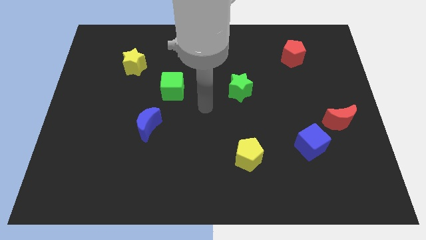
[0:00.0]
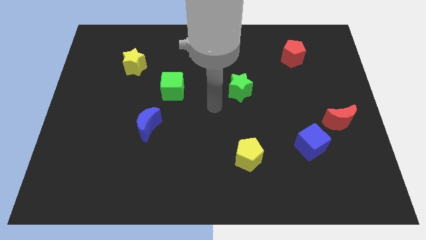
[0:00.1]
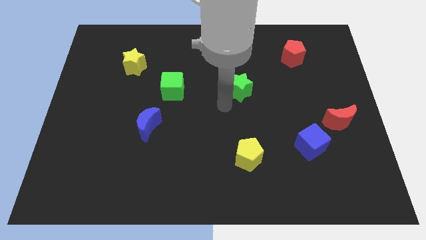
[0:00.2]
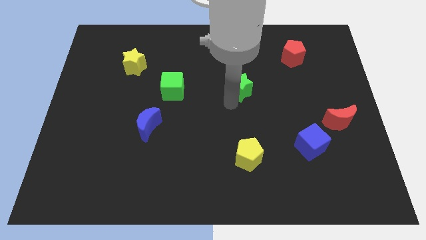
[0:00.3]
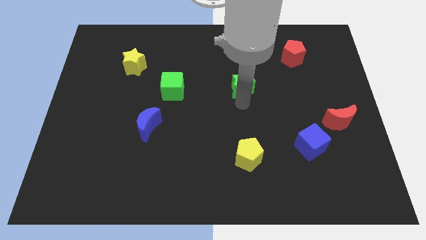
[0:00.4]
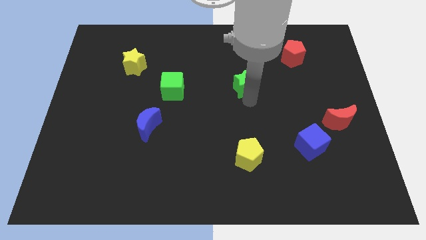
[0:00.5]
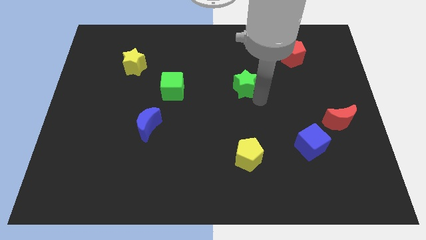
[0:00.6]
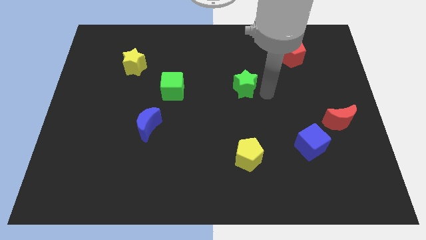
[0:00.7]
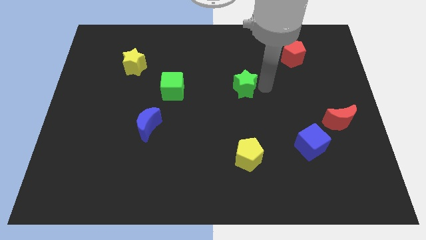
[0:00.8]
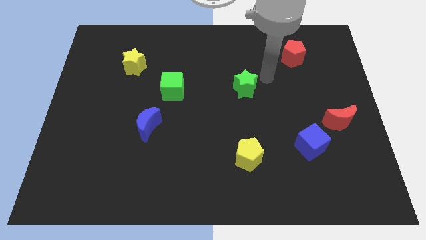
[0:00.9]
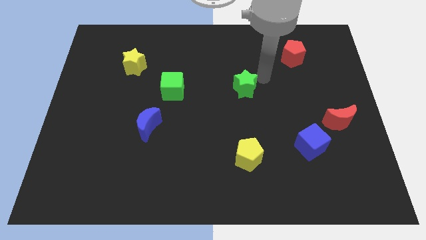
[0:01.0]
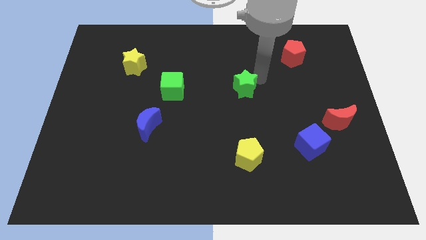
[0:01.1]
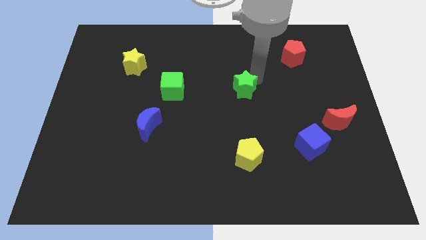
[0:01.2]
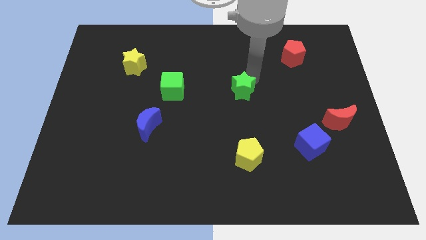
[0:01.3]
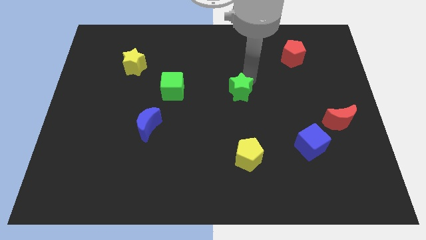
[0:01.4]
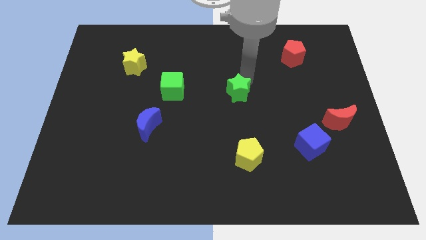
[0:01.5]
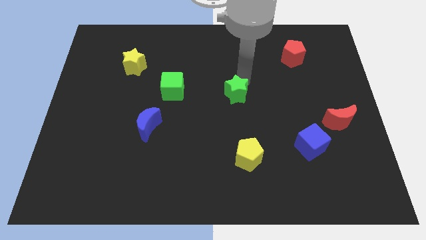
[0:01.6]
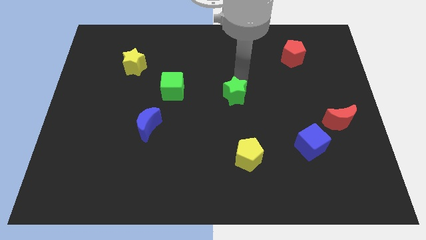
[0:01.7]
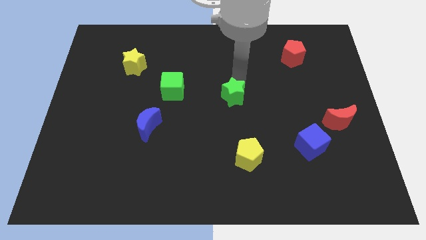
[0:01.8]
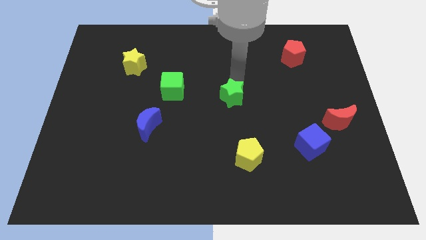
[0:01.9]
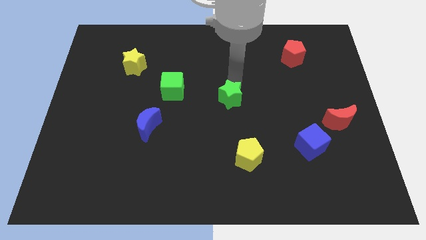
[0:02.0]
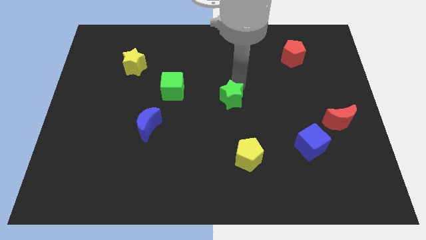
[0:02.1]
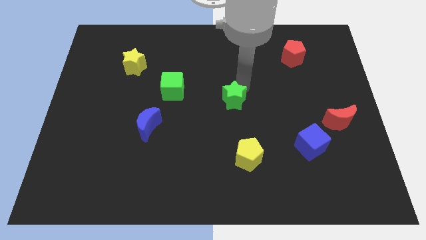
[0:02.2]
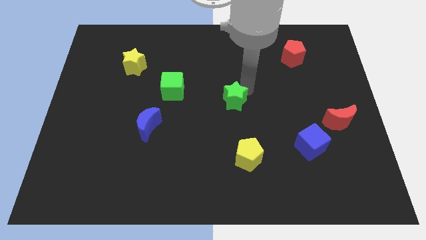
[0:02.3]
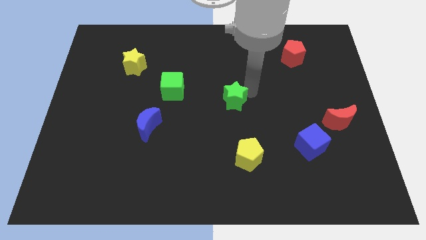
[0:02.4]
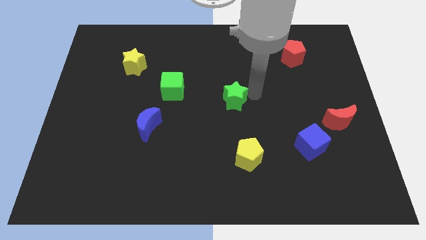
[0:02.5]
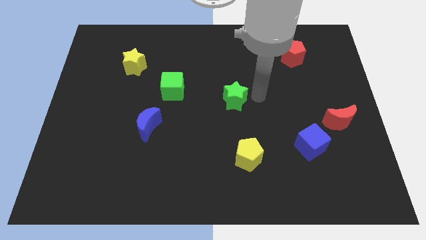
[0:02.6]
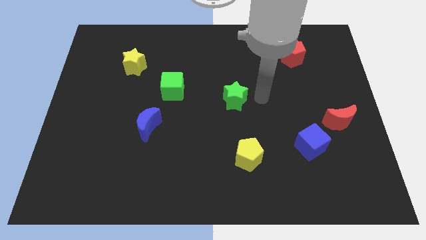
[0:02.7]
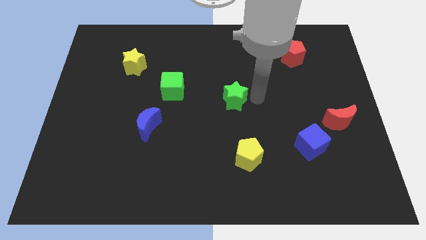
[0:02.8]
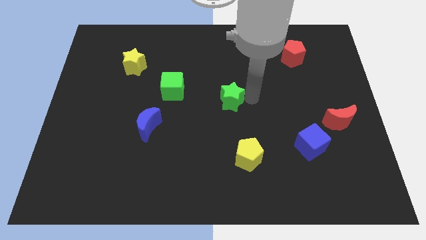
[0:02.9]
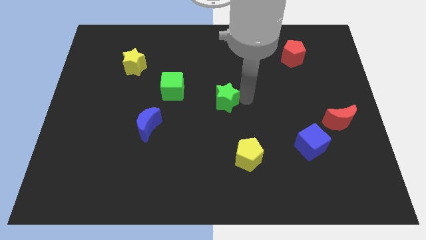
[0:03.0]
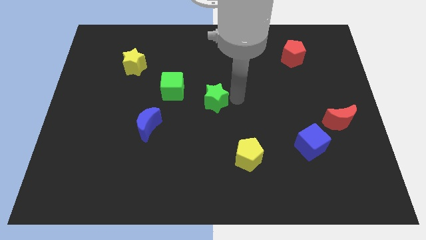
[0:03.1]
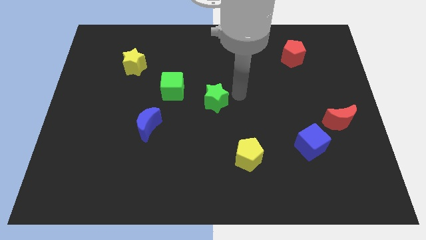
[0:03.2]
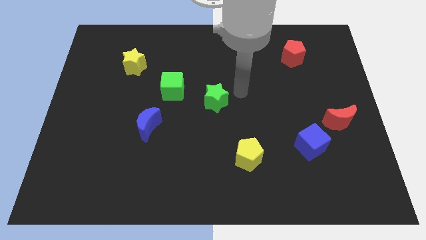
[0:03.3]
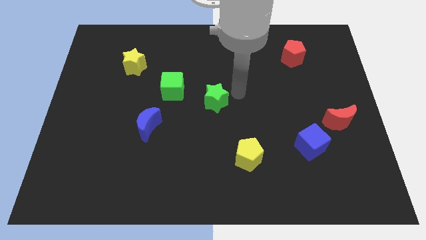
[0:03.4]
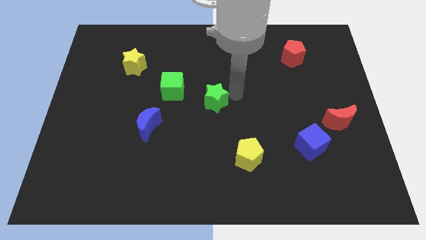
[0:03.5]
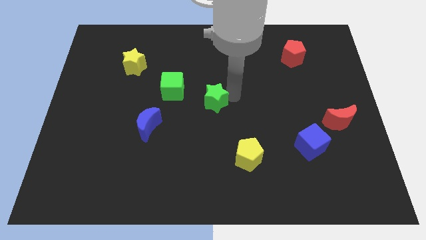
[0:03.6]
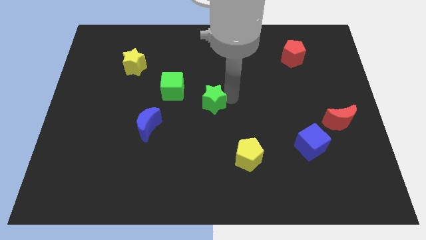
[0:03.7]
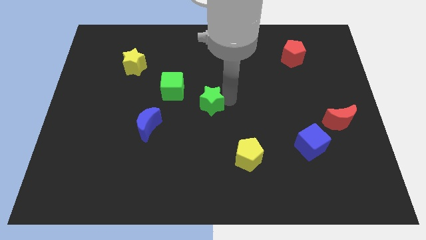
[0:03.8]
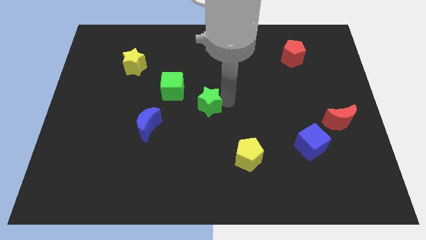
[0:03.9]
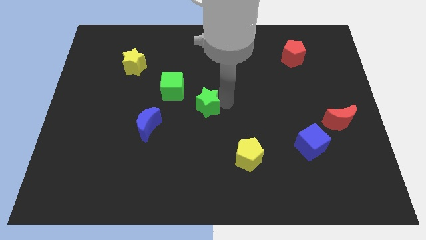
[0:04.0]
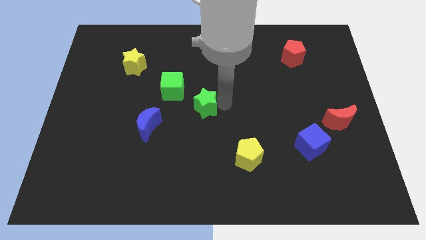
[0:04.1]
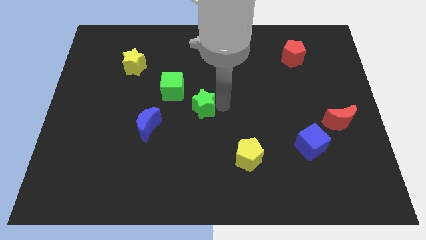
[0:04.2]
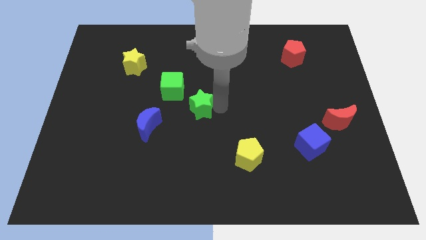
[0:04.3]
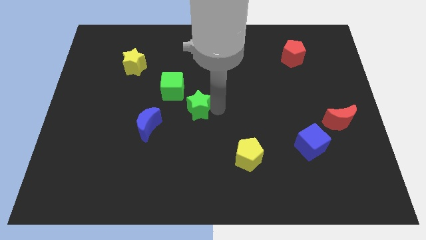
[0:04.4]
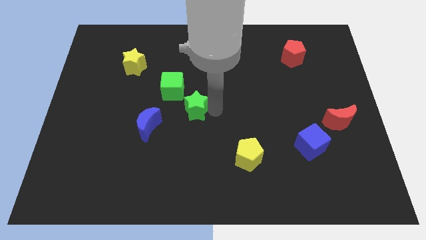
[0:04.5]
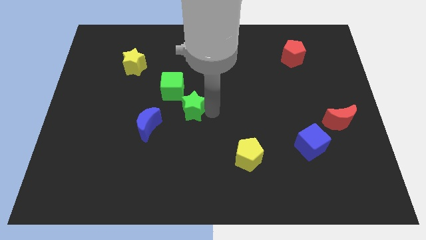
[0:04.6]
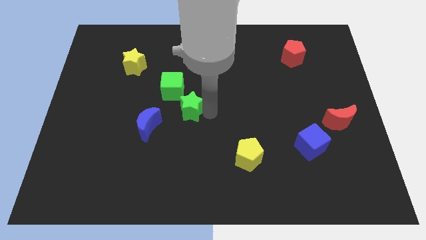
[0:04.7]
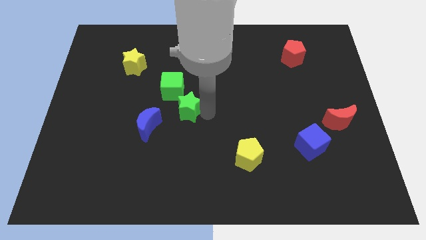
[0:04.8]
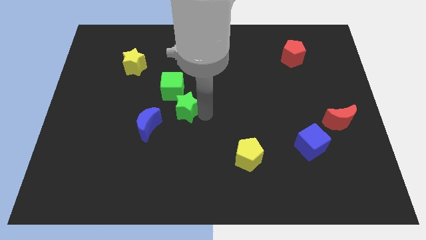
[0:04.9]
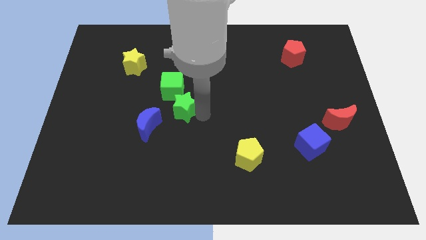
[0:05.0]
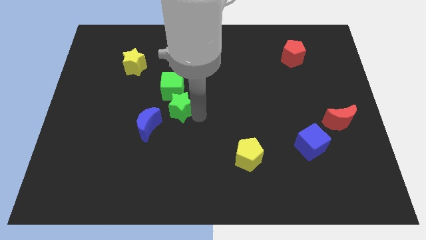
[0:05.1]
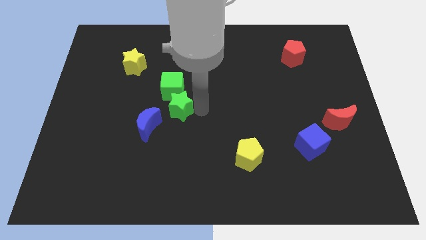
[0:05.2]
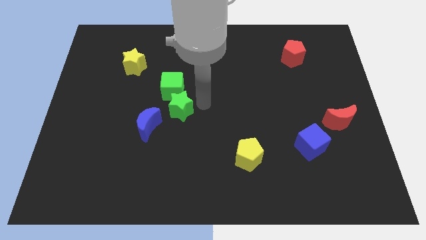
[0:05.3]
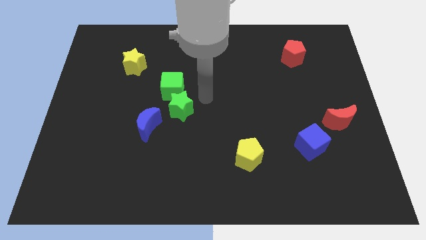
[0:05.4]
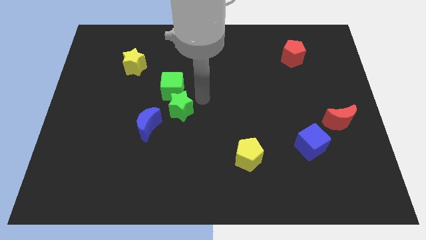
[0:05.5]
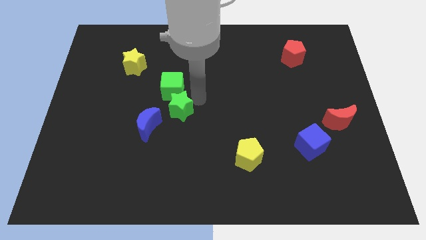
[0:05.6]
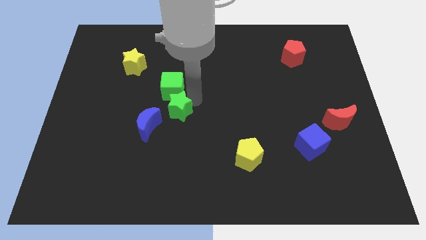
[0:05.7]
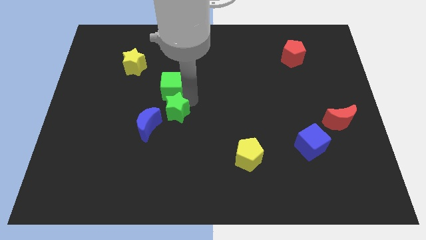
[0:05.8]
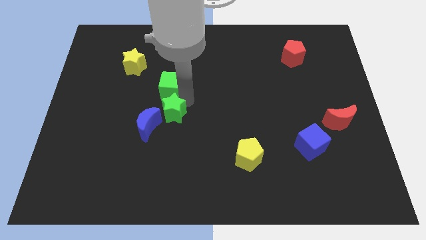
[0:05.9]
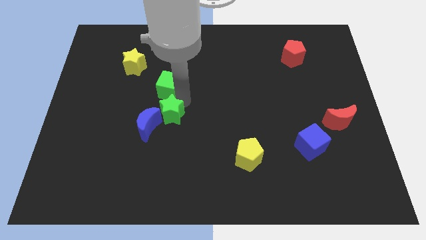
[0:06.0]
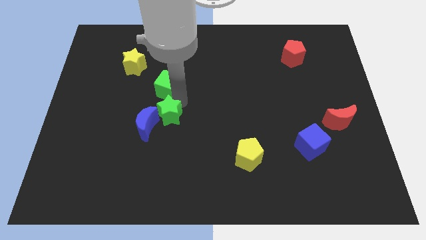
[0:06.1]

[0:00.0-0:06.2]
push the green star close to the blue moon
